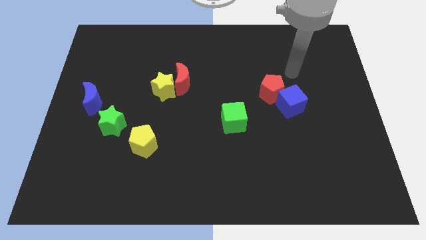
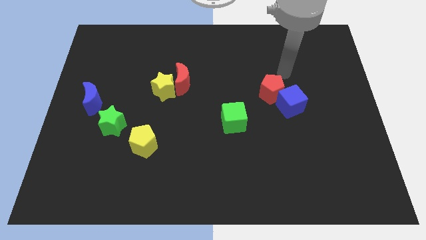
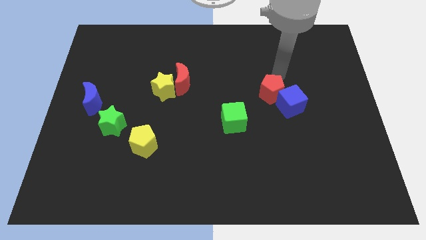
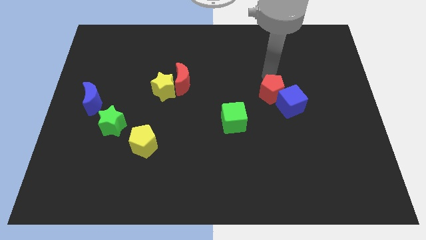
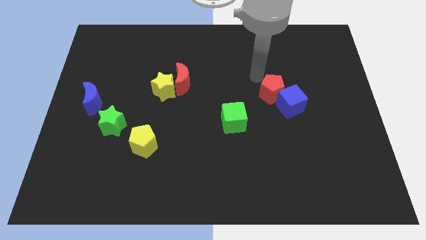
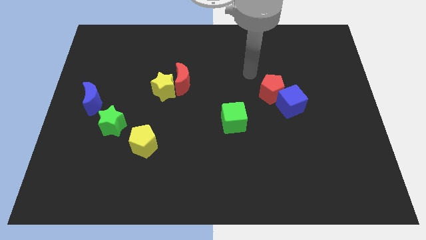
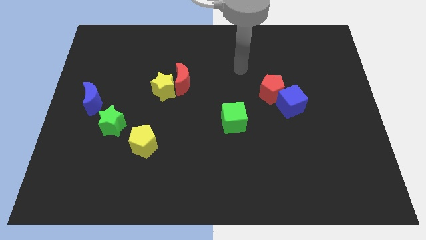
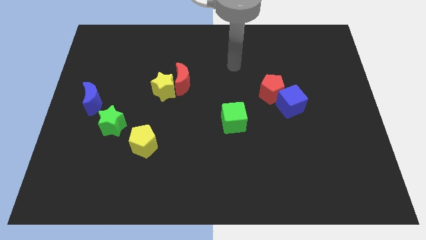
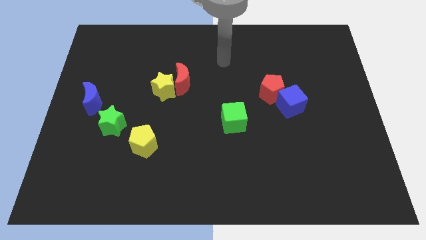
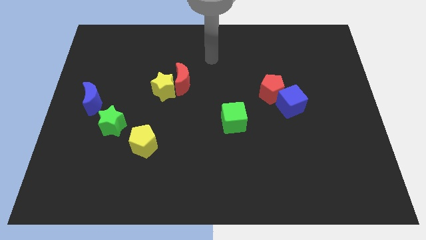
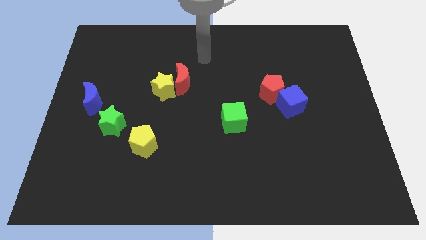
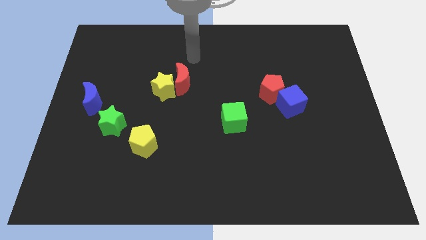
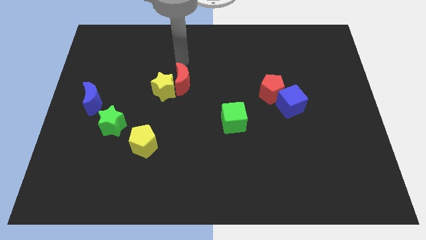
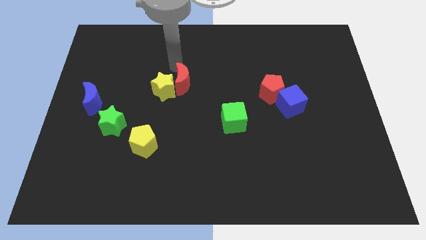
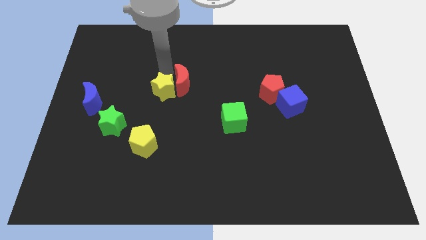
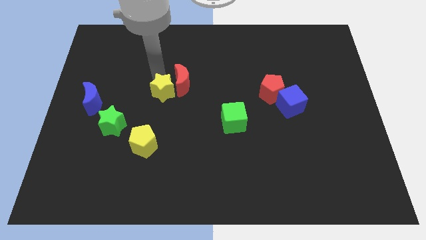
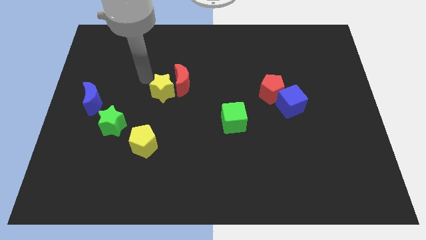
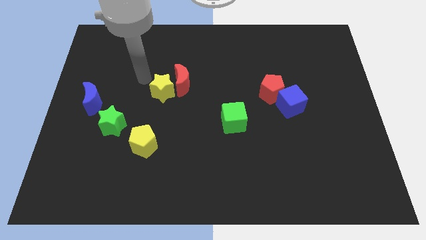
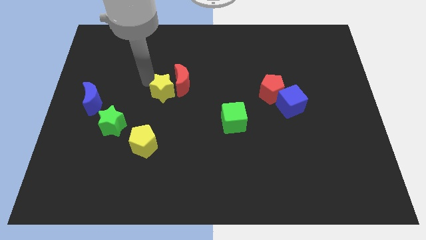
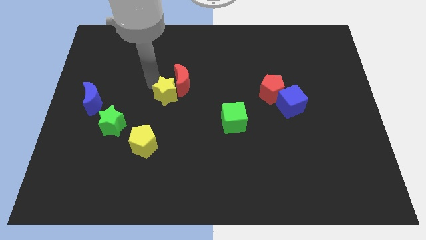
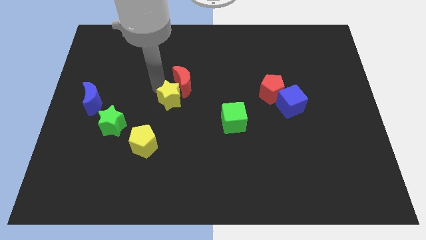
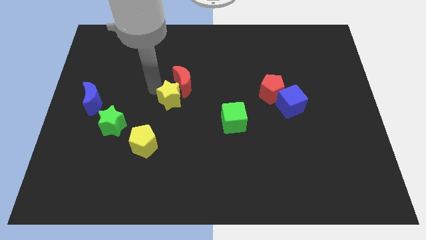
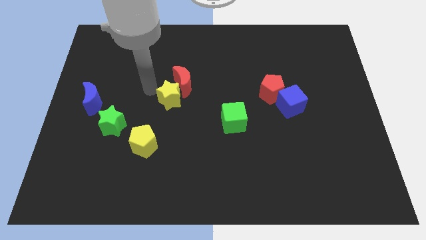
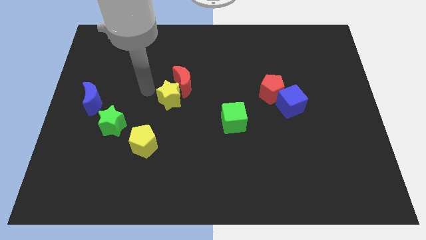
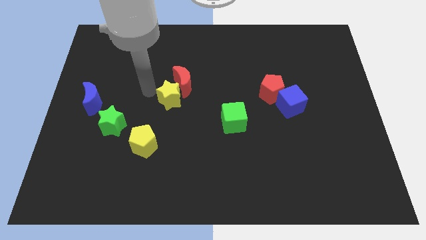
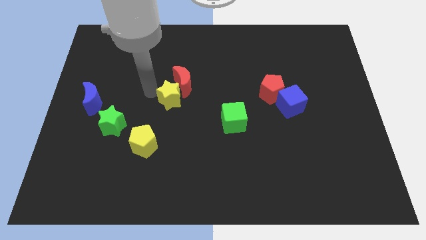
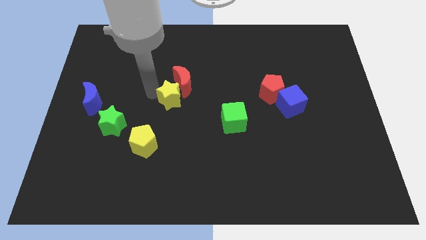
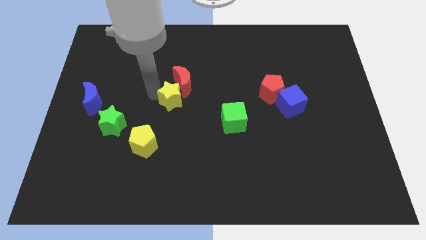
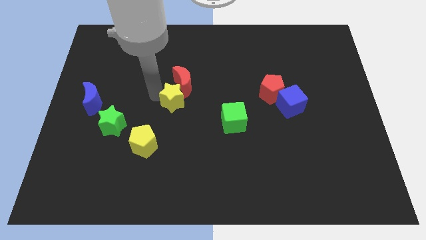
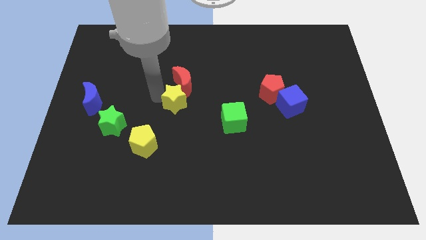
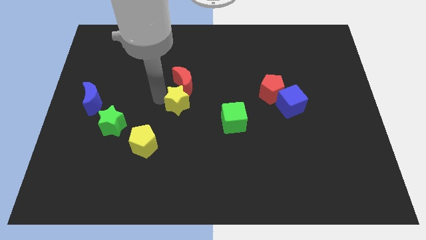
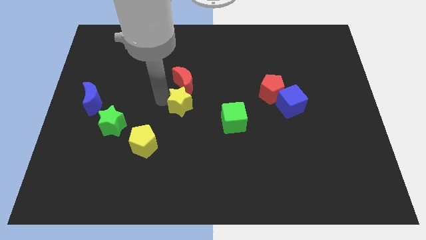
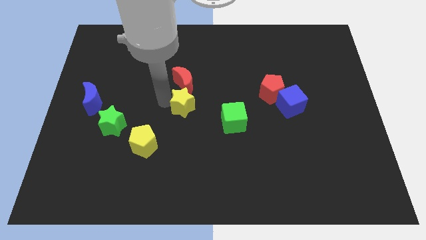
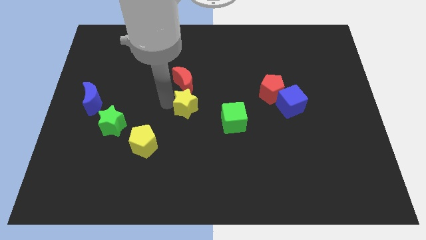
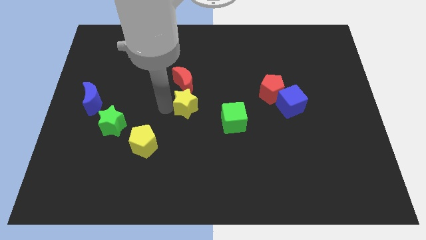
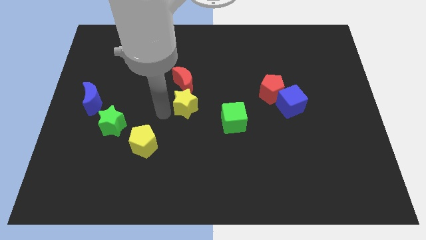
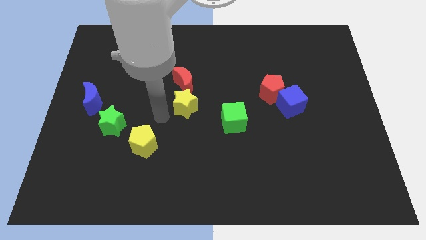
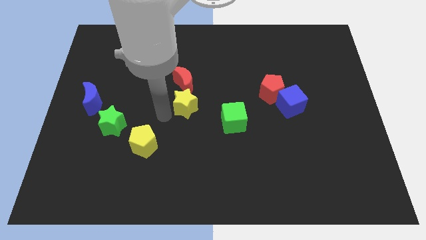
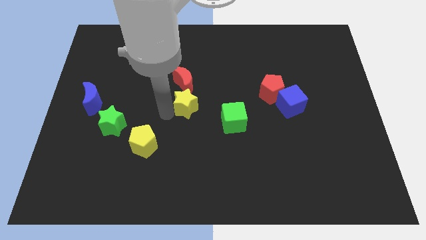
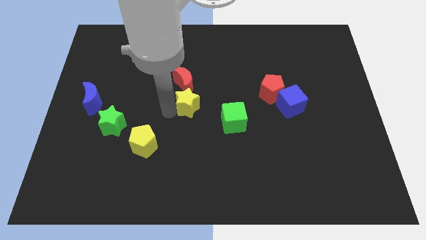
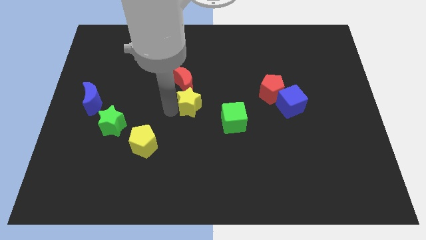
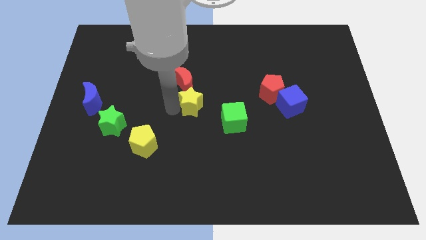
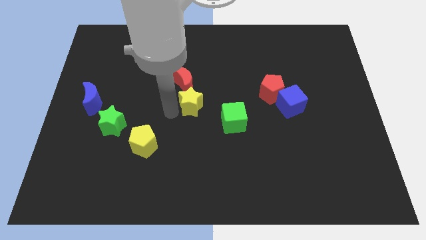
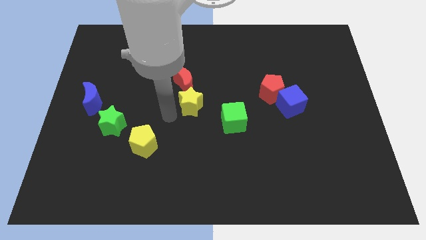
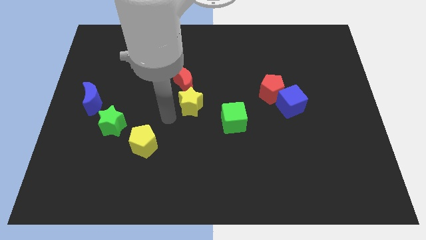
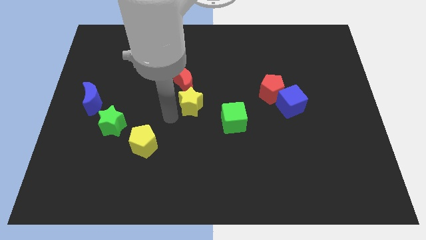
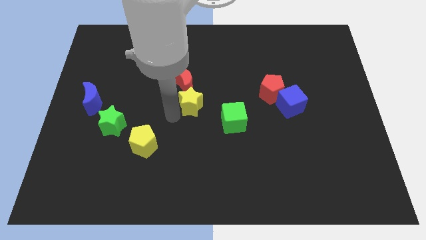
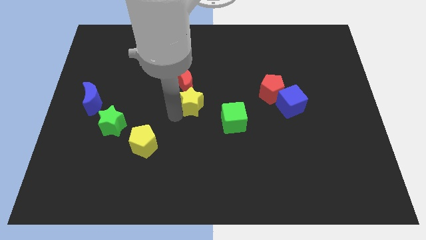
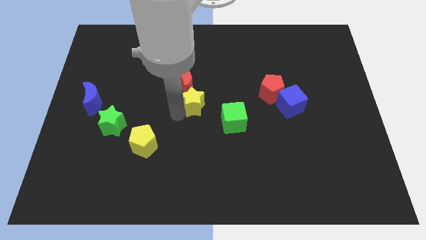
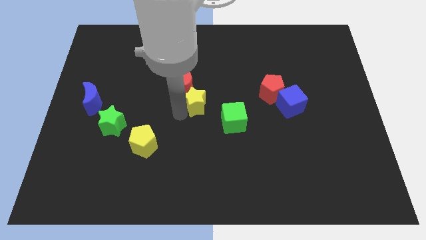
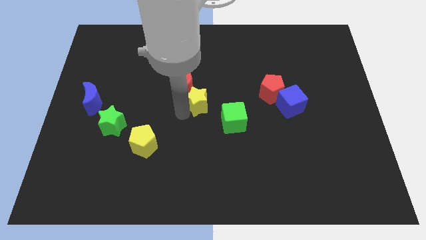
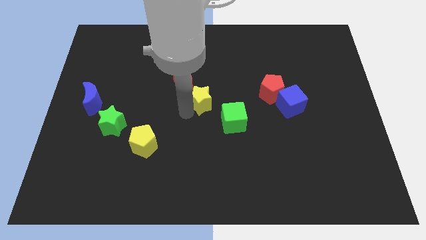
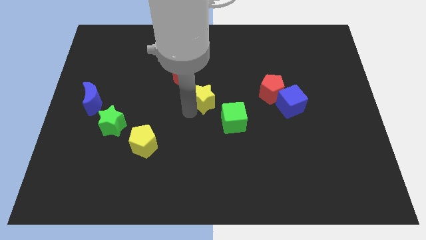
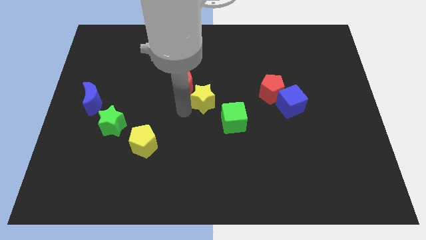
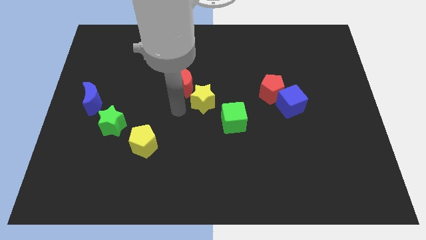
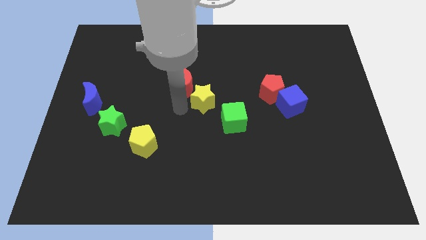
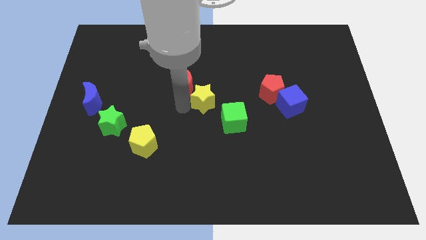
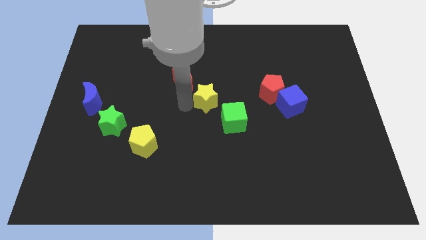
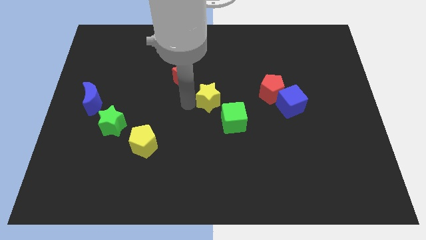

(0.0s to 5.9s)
move the yellow star just left of the red pentagon
